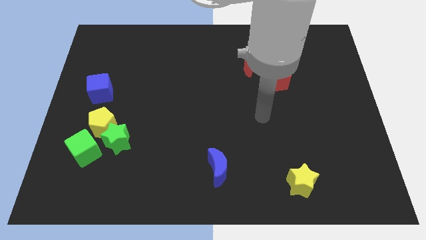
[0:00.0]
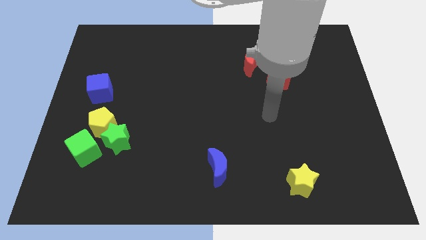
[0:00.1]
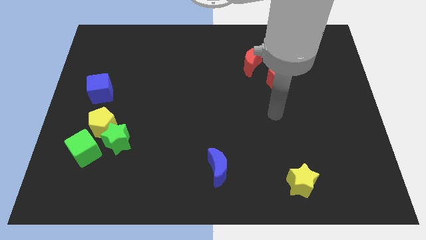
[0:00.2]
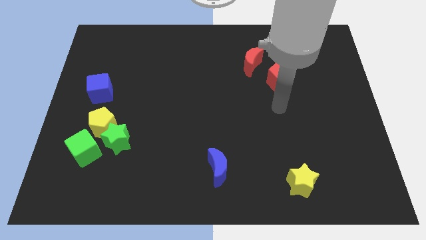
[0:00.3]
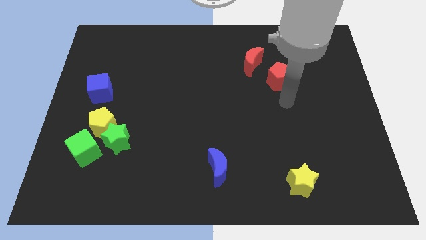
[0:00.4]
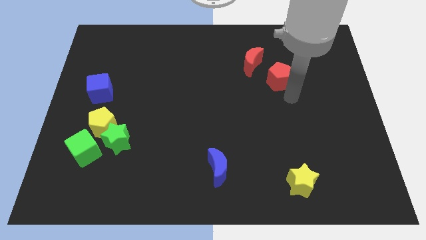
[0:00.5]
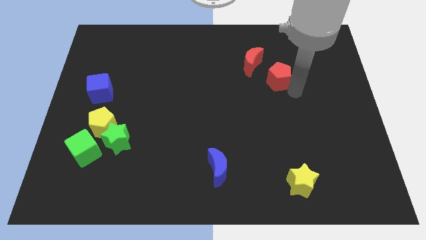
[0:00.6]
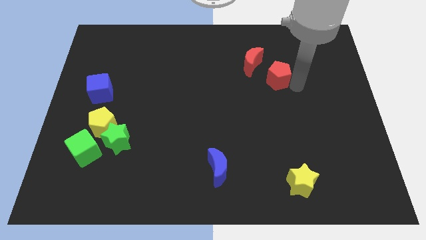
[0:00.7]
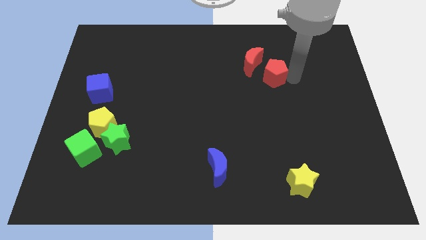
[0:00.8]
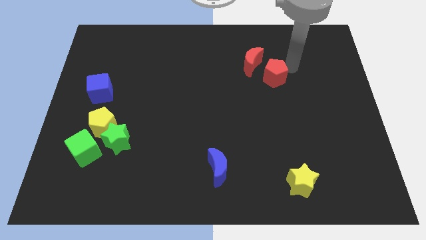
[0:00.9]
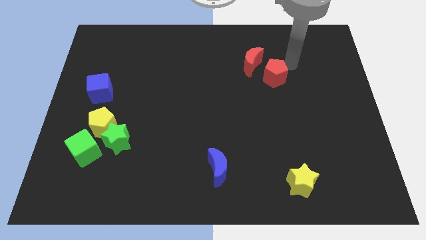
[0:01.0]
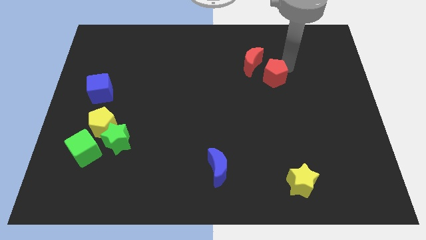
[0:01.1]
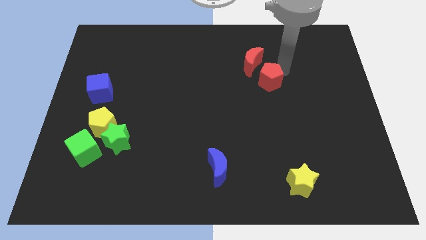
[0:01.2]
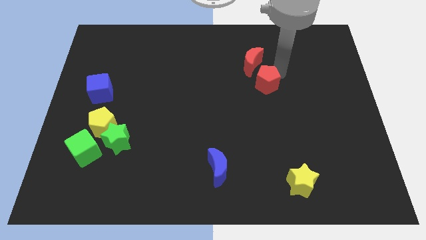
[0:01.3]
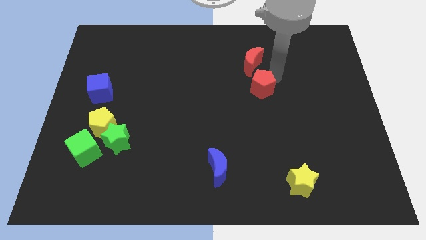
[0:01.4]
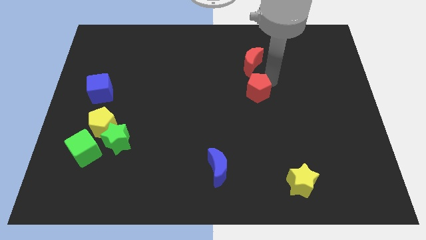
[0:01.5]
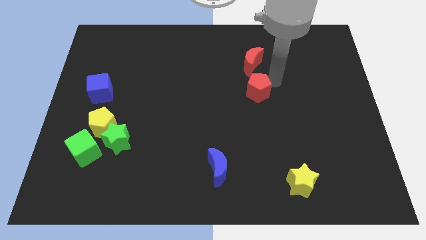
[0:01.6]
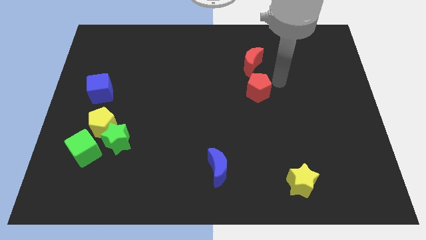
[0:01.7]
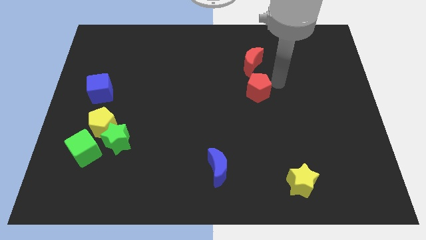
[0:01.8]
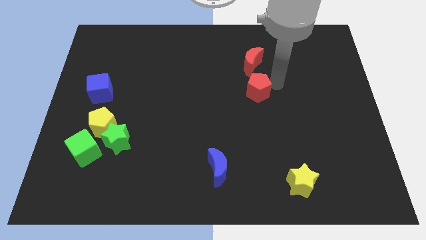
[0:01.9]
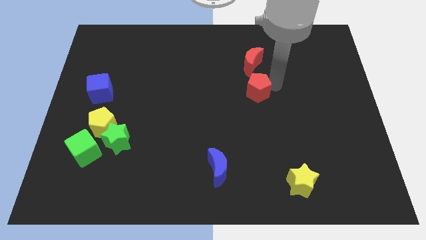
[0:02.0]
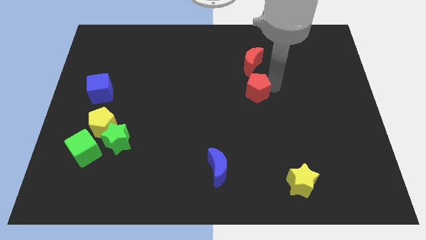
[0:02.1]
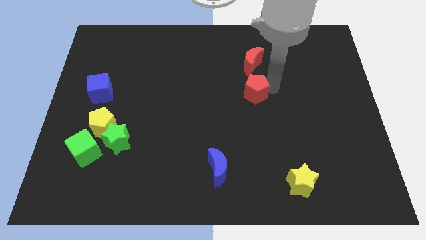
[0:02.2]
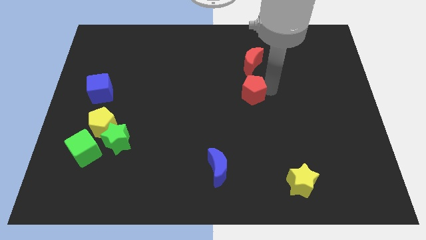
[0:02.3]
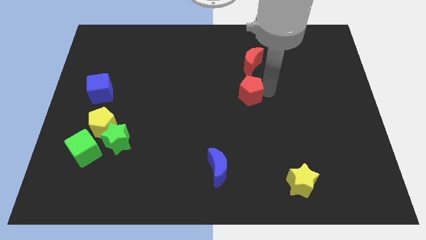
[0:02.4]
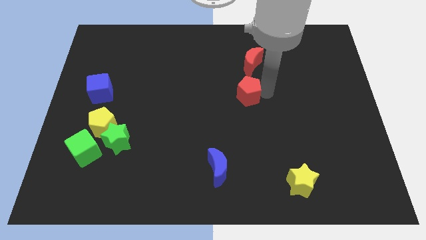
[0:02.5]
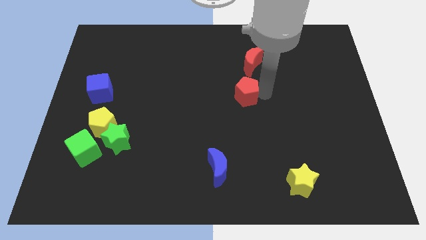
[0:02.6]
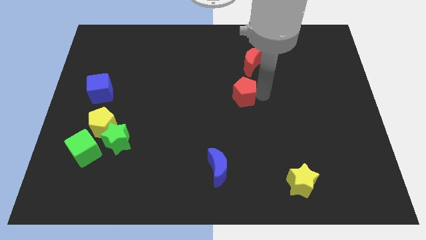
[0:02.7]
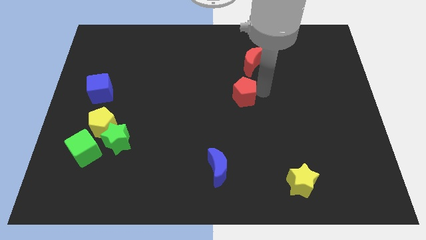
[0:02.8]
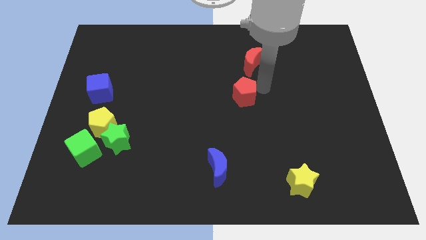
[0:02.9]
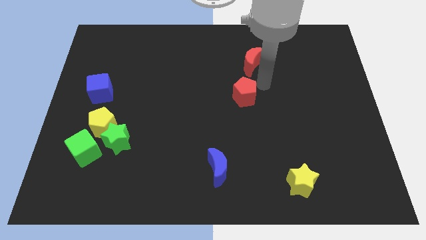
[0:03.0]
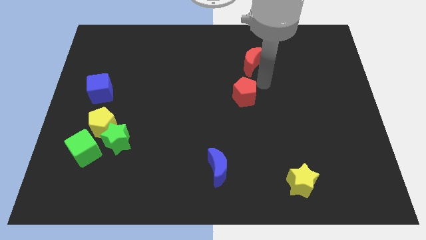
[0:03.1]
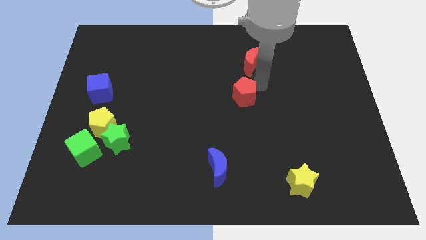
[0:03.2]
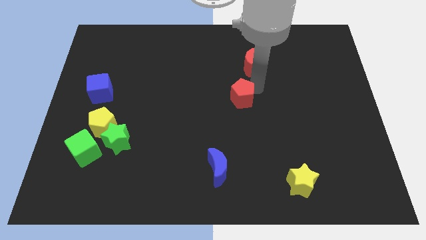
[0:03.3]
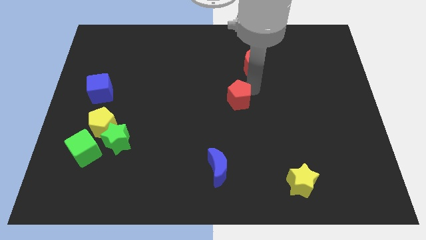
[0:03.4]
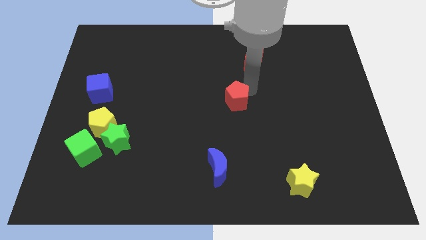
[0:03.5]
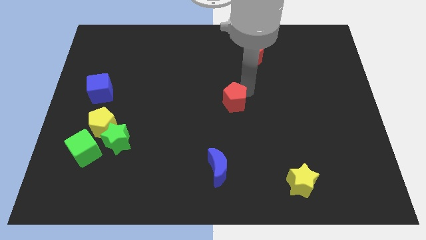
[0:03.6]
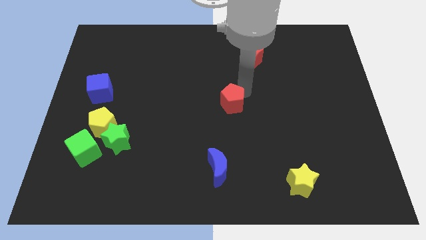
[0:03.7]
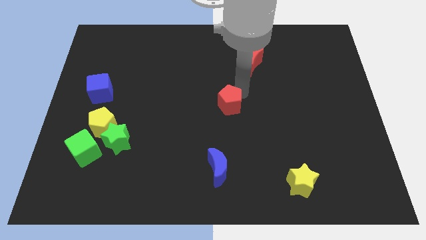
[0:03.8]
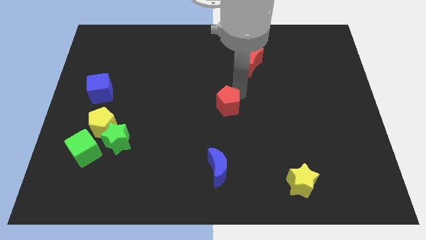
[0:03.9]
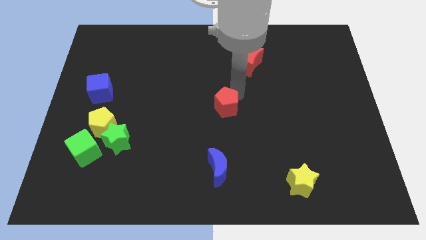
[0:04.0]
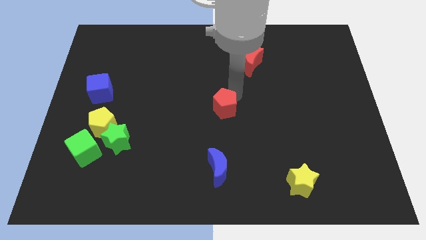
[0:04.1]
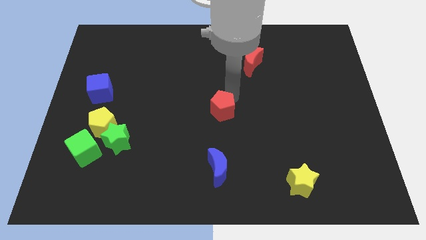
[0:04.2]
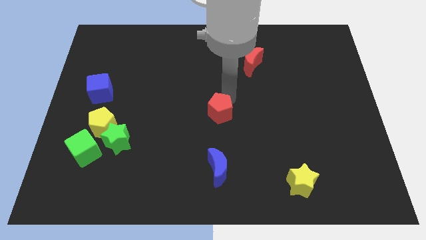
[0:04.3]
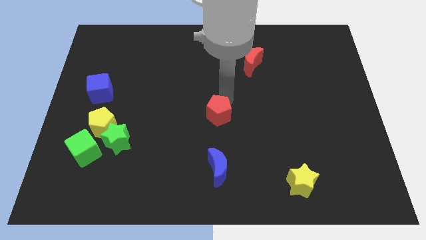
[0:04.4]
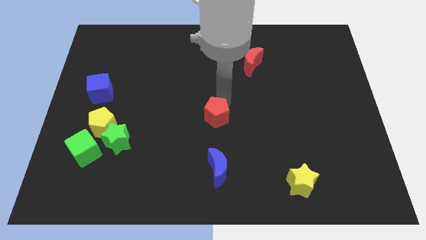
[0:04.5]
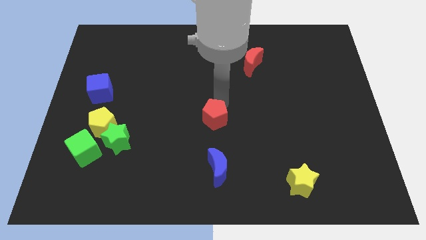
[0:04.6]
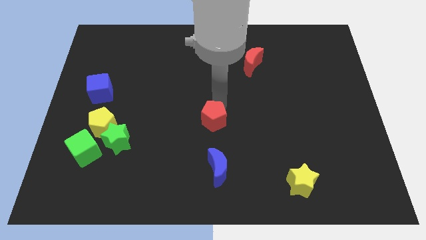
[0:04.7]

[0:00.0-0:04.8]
slide the red pentagon downwards and left diagonally

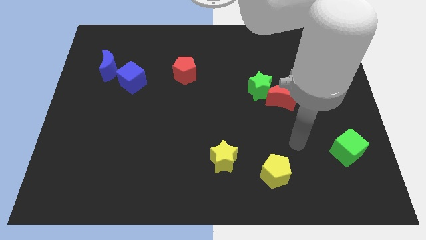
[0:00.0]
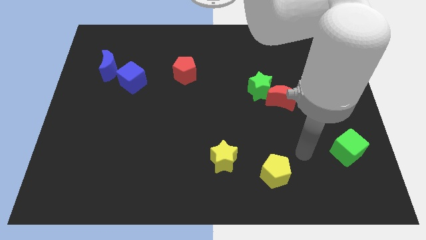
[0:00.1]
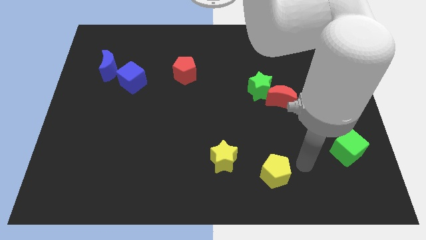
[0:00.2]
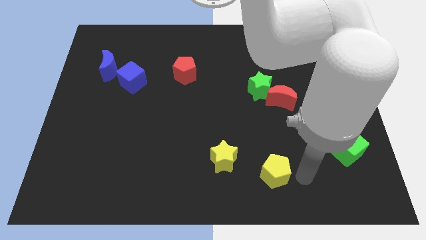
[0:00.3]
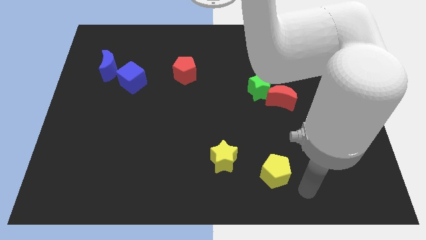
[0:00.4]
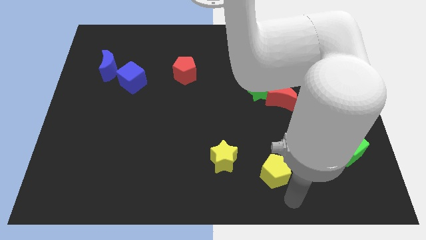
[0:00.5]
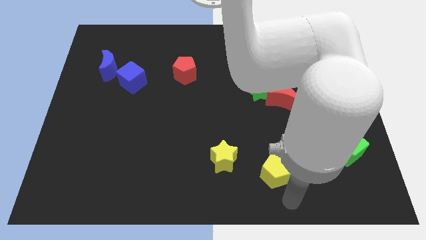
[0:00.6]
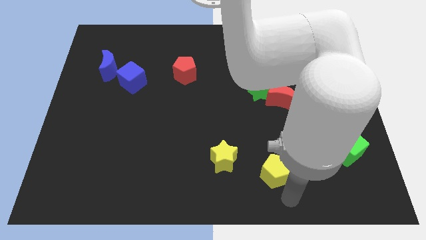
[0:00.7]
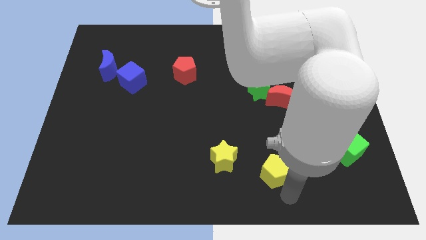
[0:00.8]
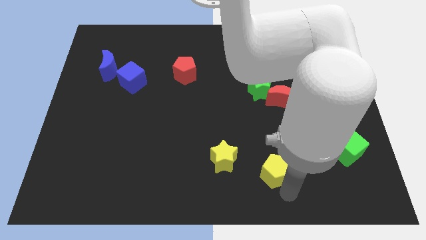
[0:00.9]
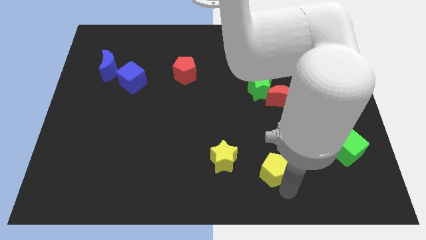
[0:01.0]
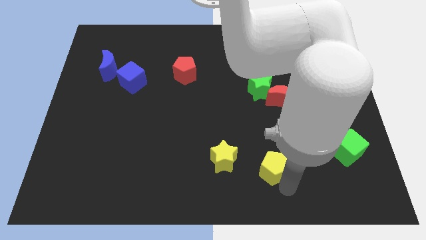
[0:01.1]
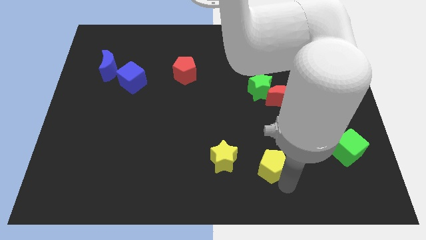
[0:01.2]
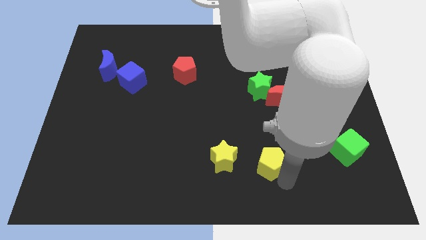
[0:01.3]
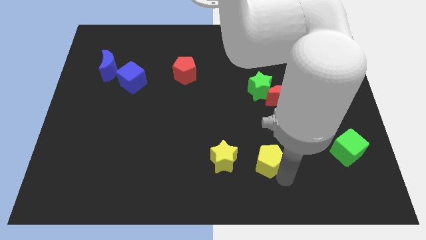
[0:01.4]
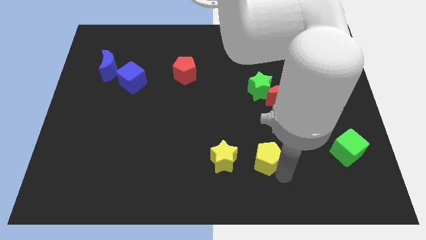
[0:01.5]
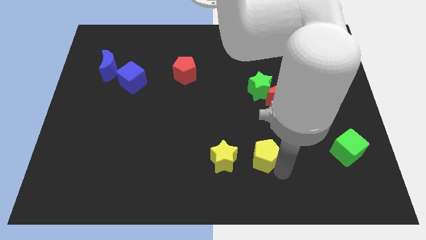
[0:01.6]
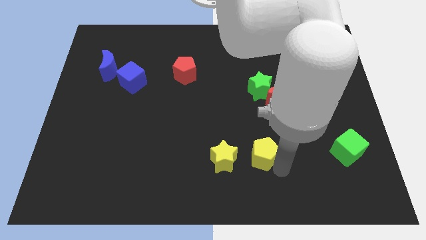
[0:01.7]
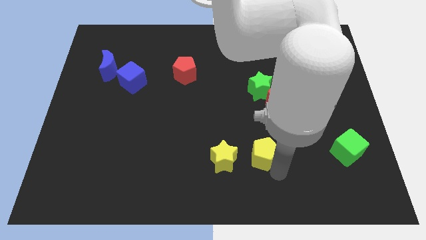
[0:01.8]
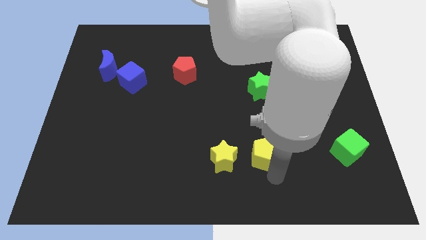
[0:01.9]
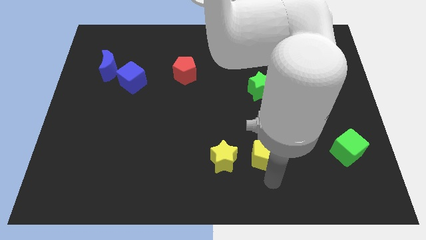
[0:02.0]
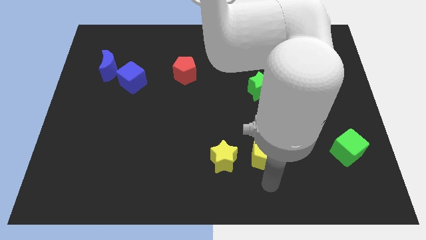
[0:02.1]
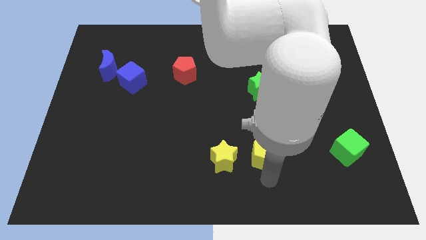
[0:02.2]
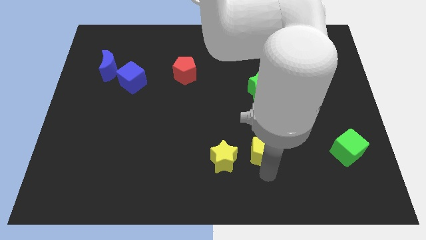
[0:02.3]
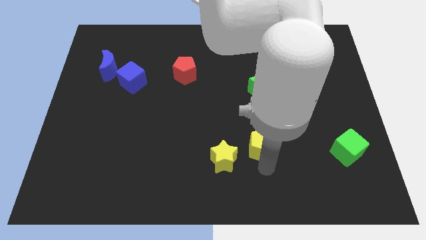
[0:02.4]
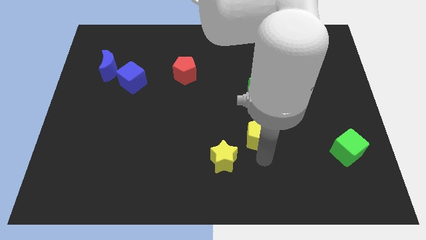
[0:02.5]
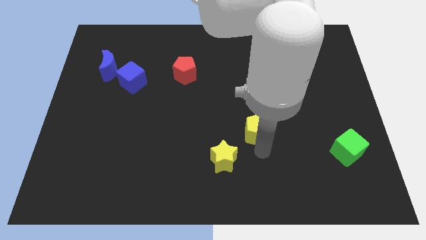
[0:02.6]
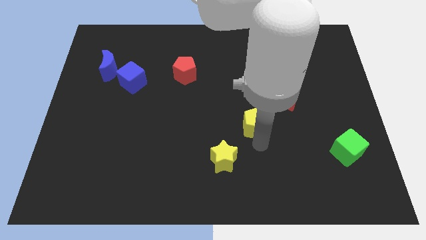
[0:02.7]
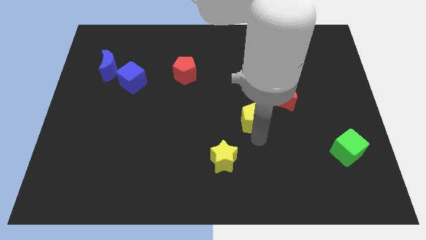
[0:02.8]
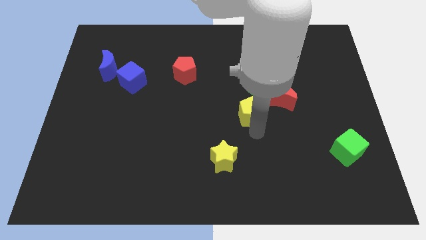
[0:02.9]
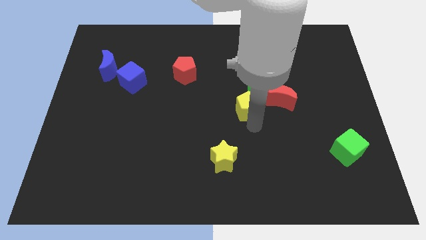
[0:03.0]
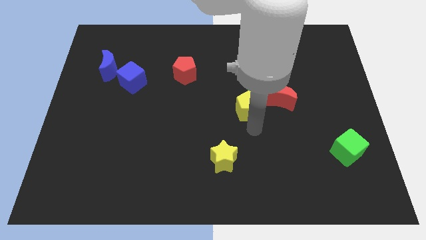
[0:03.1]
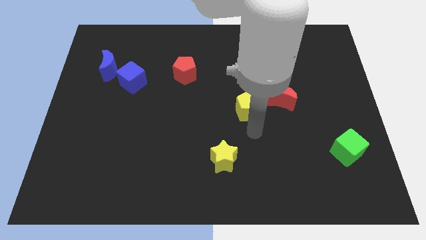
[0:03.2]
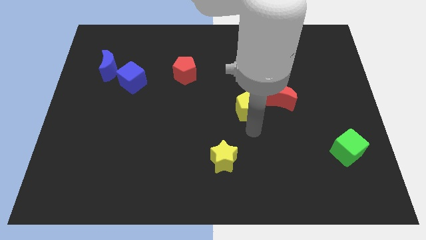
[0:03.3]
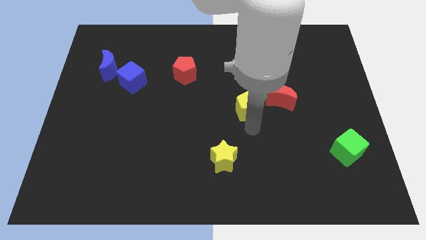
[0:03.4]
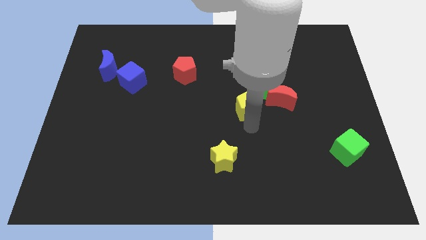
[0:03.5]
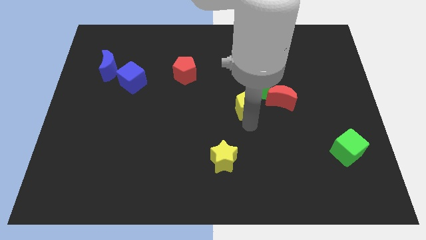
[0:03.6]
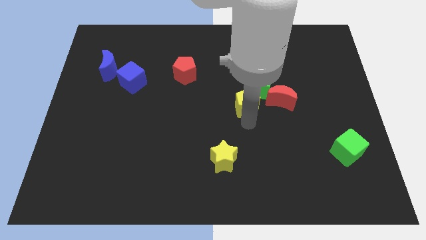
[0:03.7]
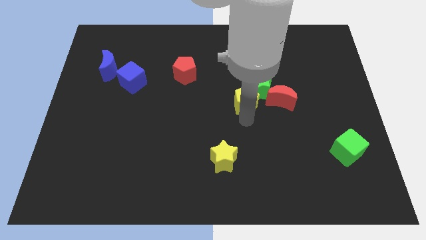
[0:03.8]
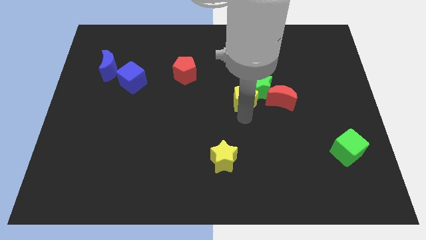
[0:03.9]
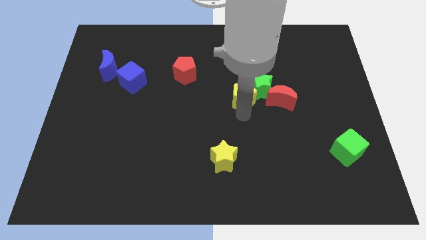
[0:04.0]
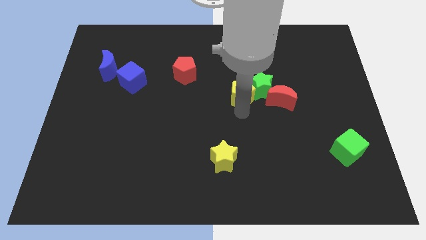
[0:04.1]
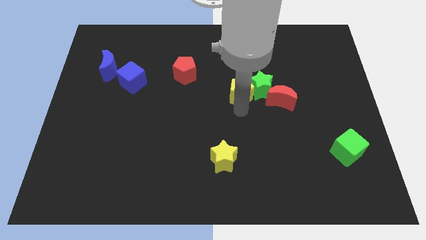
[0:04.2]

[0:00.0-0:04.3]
move the yellow pentagon up
